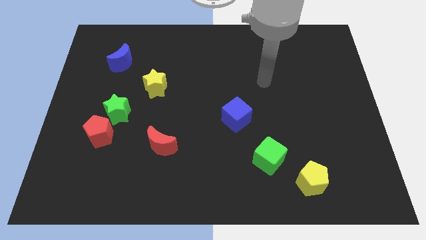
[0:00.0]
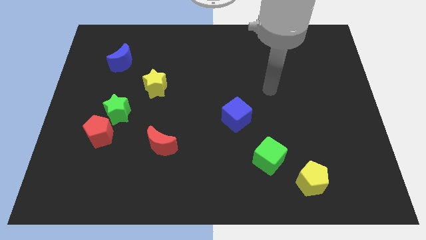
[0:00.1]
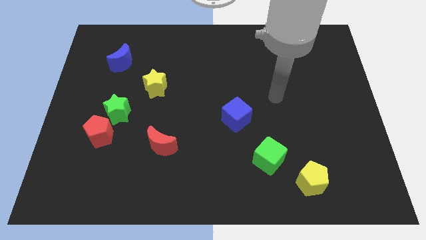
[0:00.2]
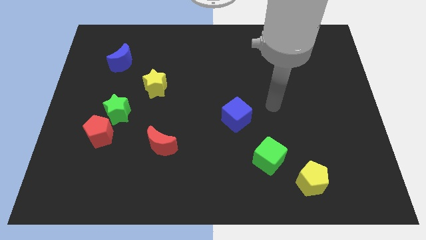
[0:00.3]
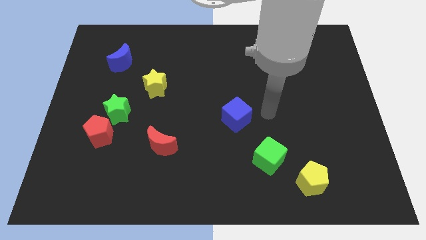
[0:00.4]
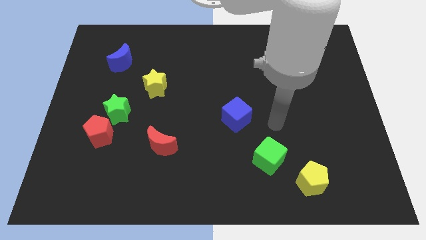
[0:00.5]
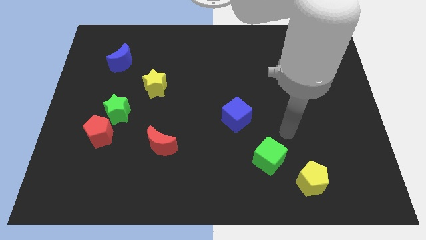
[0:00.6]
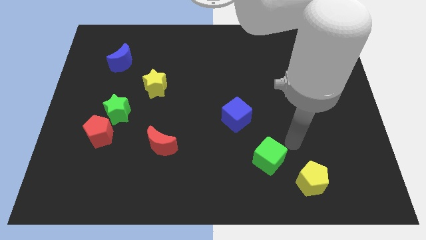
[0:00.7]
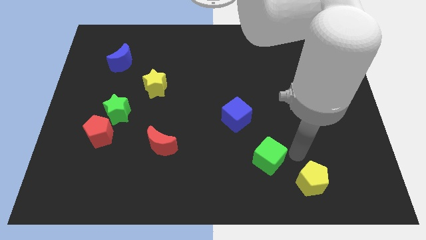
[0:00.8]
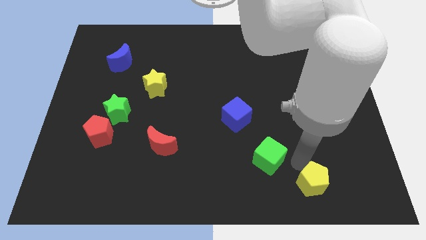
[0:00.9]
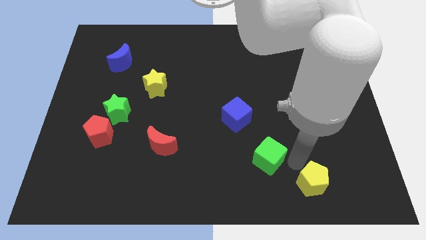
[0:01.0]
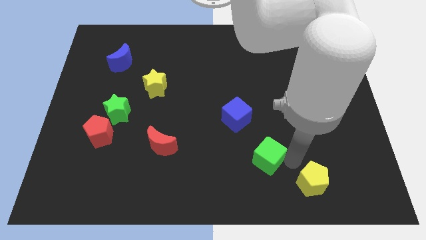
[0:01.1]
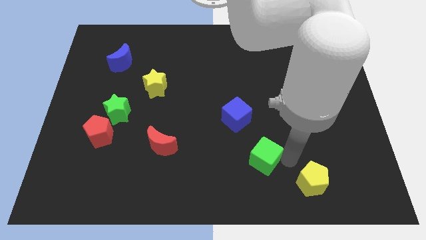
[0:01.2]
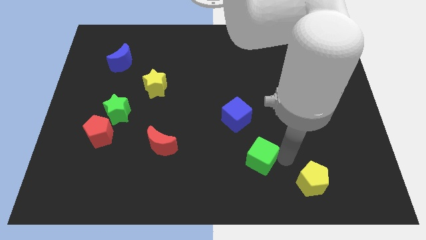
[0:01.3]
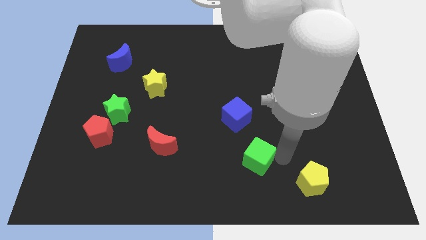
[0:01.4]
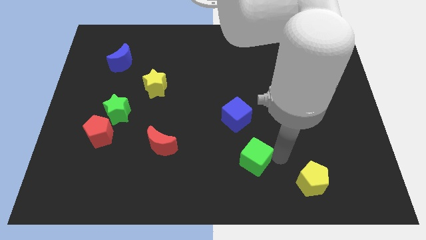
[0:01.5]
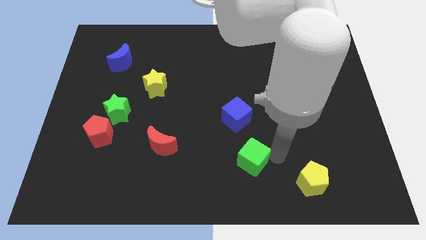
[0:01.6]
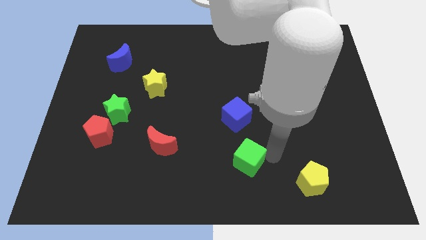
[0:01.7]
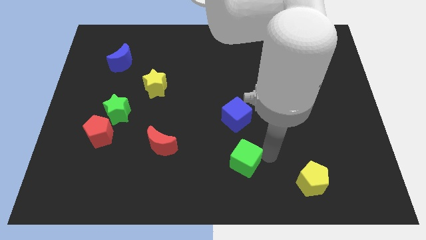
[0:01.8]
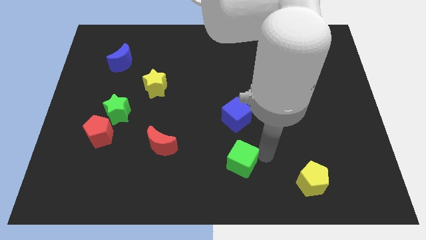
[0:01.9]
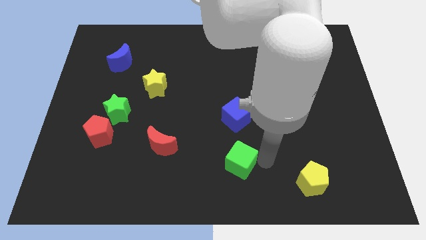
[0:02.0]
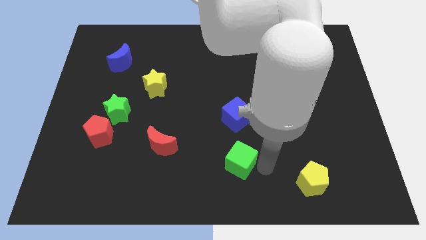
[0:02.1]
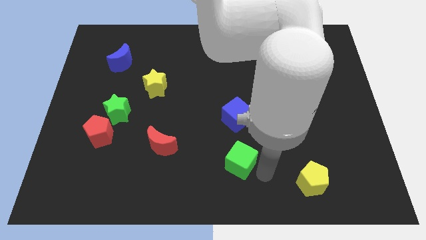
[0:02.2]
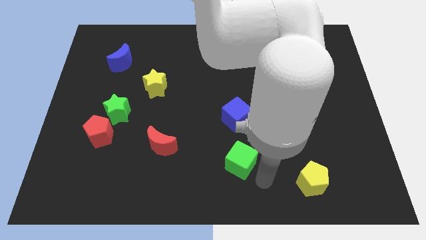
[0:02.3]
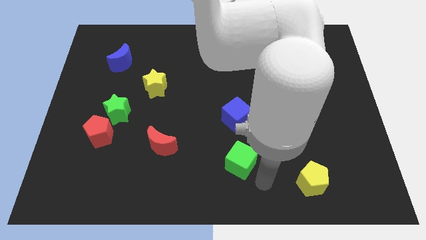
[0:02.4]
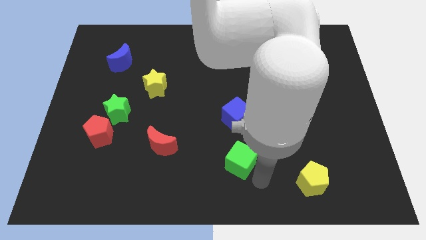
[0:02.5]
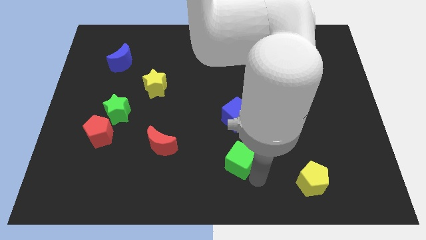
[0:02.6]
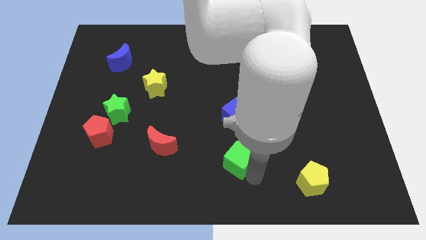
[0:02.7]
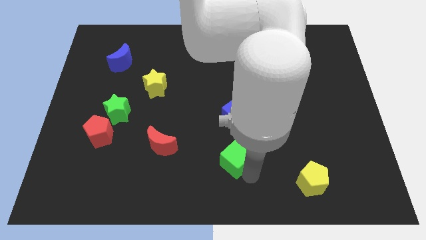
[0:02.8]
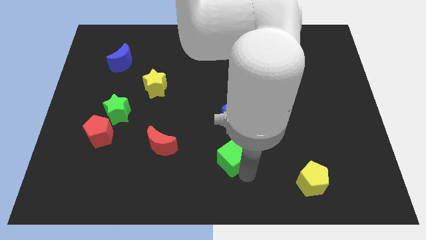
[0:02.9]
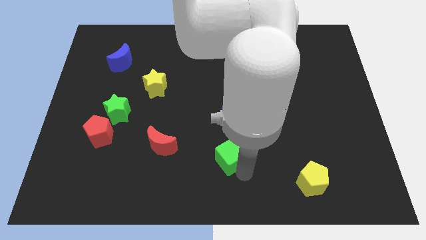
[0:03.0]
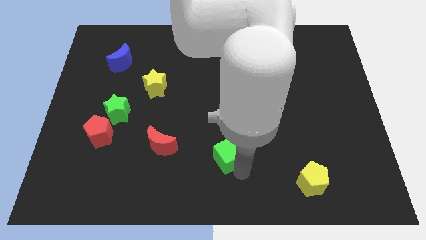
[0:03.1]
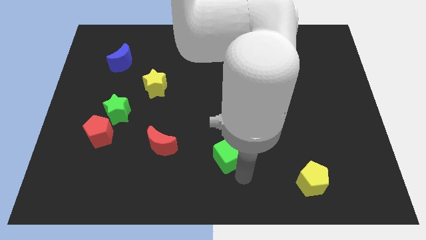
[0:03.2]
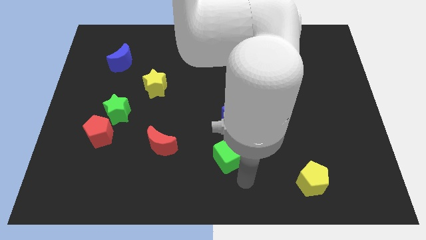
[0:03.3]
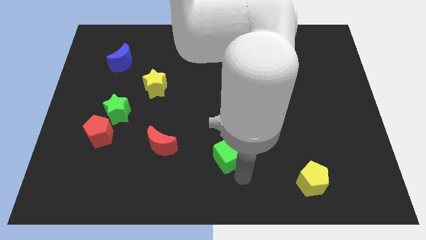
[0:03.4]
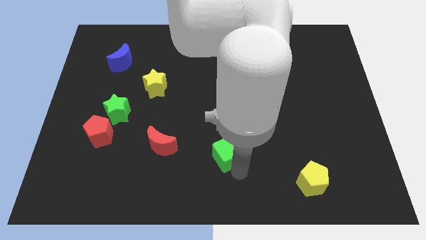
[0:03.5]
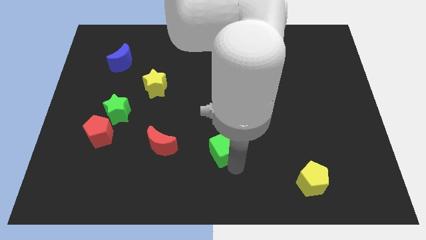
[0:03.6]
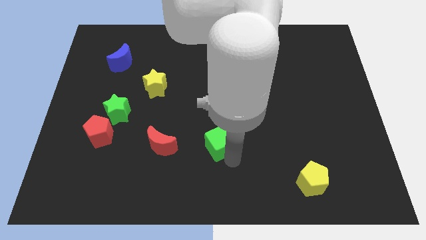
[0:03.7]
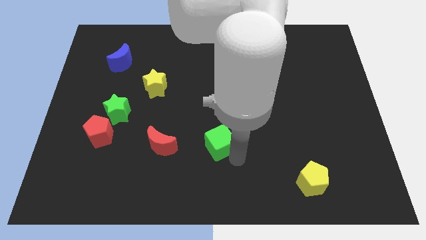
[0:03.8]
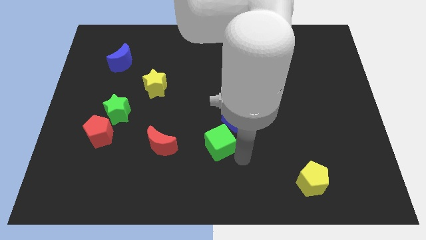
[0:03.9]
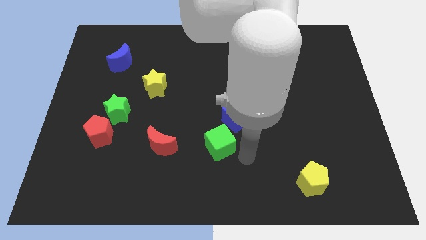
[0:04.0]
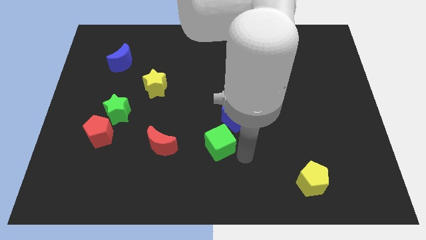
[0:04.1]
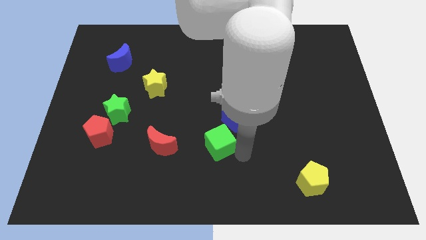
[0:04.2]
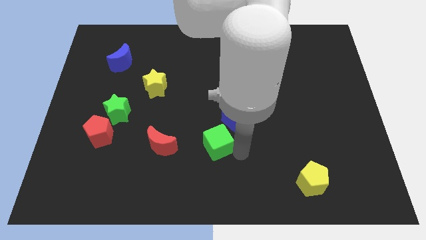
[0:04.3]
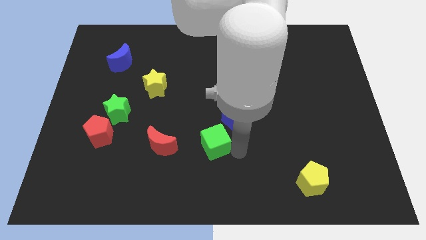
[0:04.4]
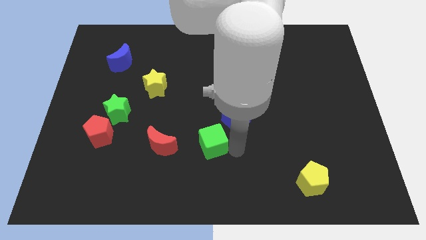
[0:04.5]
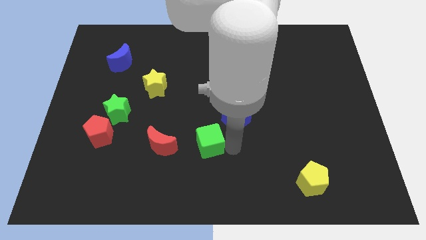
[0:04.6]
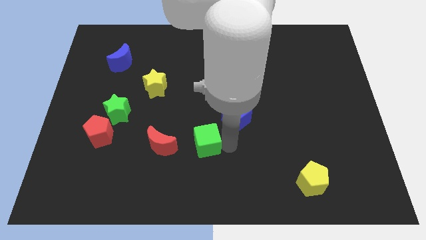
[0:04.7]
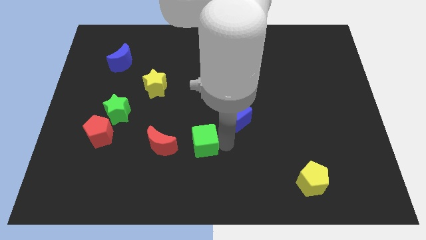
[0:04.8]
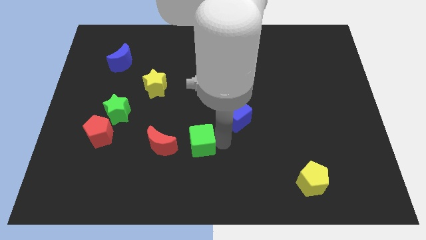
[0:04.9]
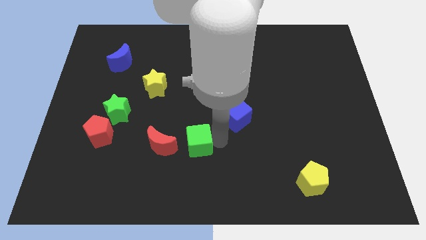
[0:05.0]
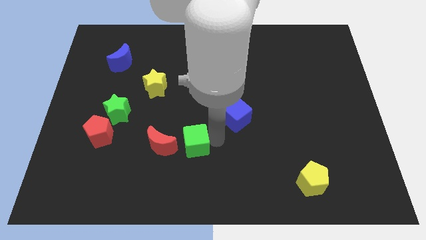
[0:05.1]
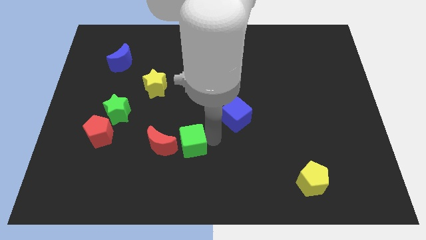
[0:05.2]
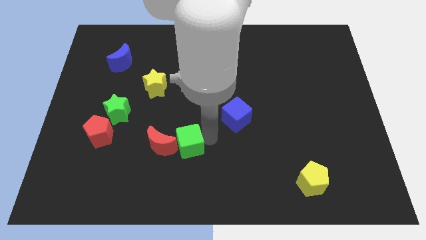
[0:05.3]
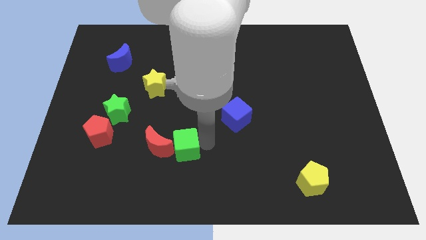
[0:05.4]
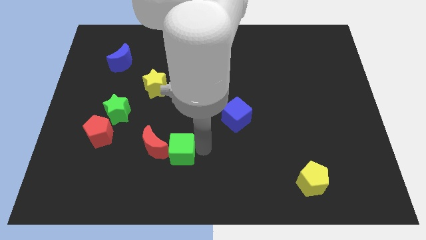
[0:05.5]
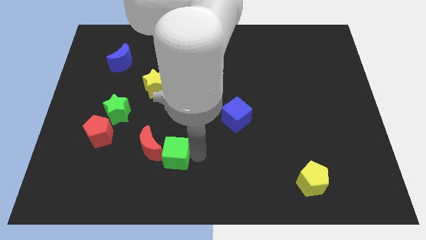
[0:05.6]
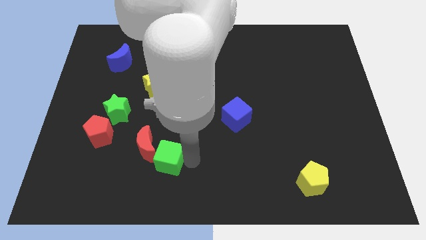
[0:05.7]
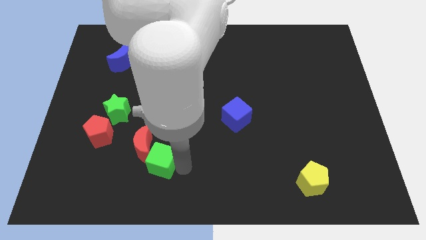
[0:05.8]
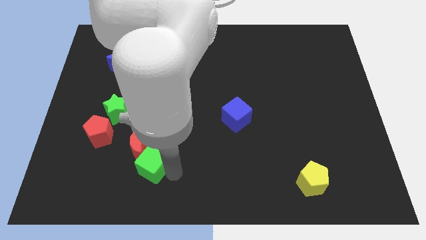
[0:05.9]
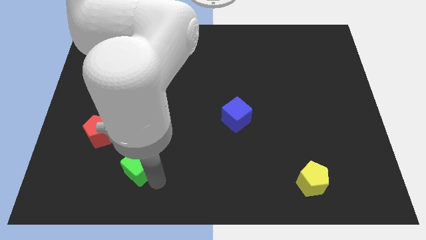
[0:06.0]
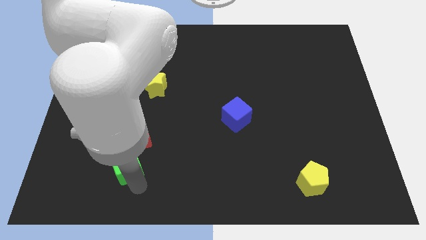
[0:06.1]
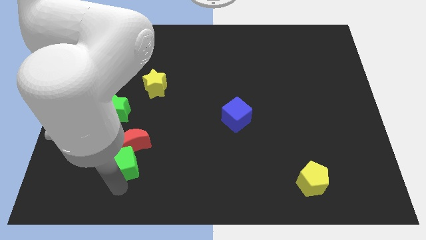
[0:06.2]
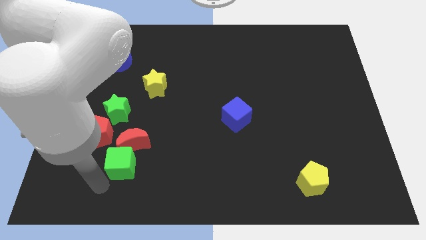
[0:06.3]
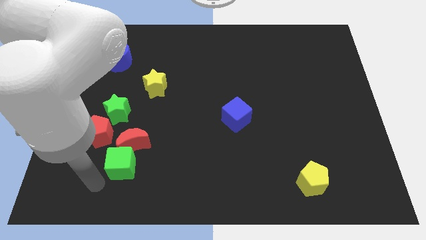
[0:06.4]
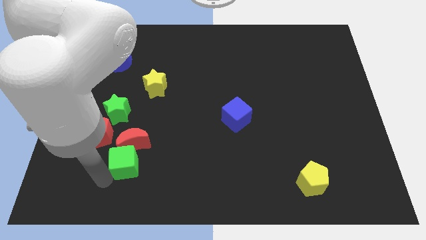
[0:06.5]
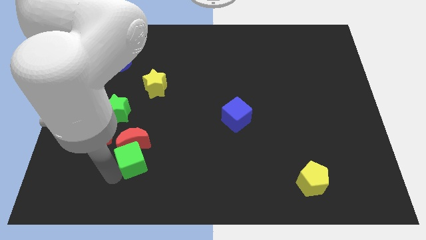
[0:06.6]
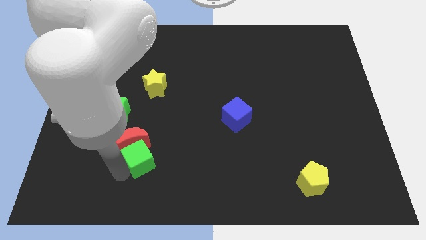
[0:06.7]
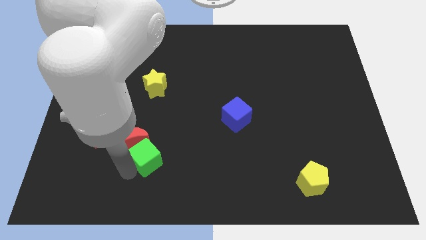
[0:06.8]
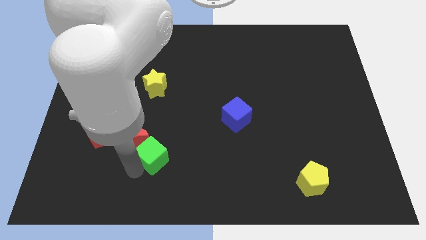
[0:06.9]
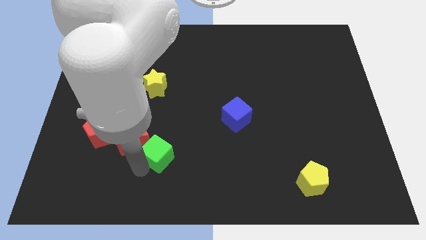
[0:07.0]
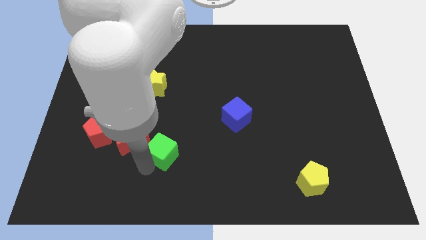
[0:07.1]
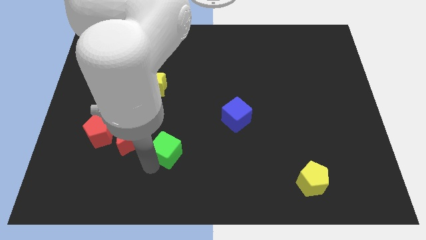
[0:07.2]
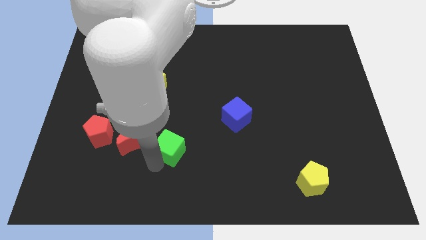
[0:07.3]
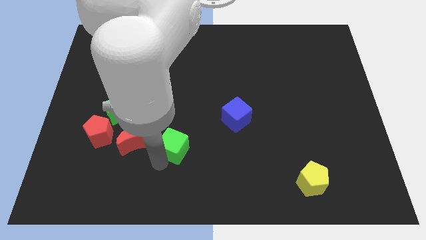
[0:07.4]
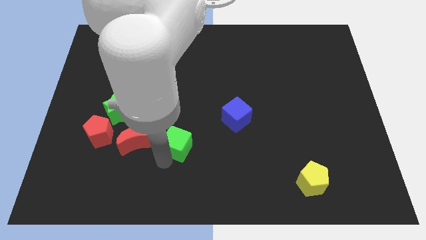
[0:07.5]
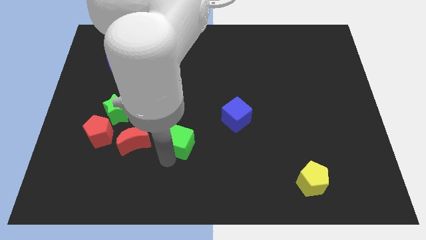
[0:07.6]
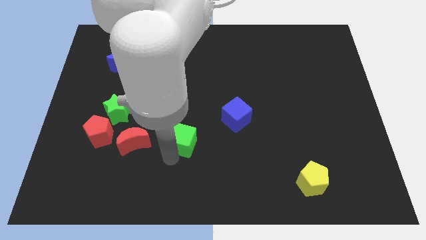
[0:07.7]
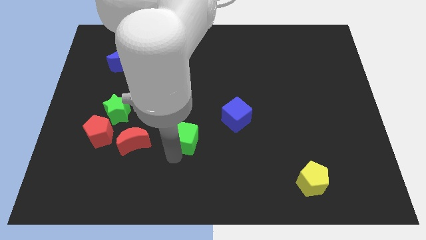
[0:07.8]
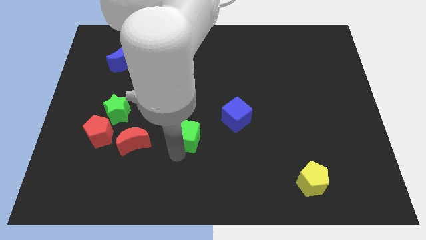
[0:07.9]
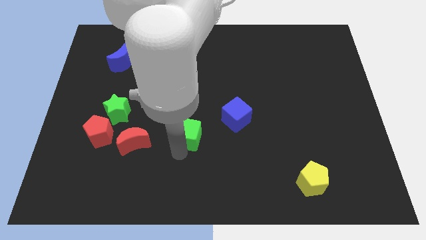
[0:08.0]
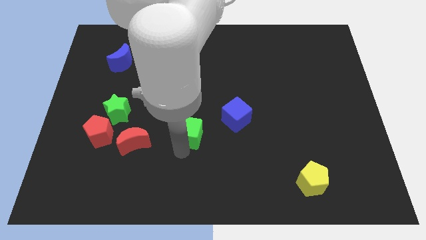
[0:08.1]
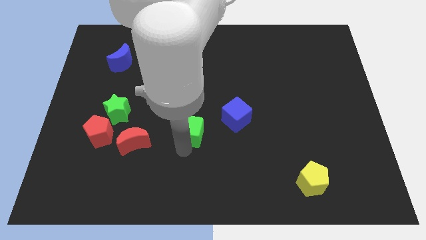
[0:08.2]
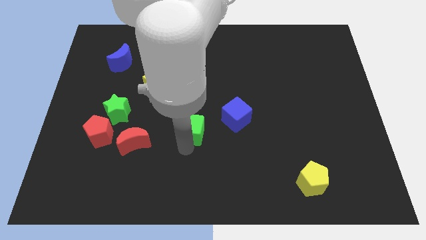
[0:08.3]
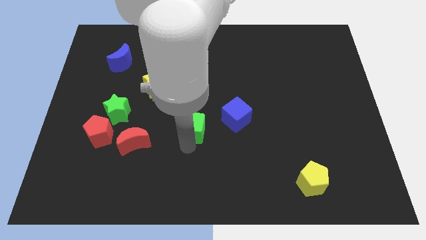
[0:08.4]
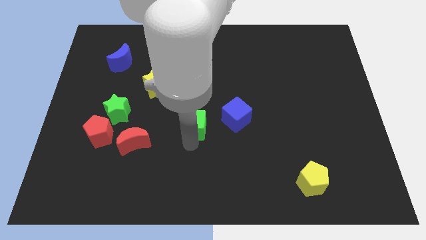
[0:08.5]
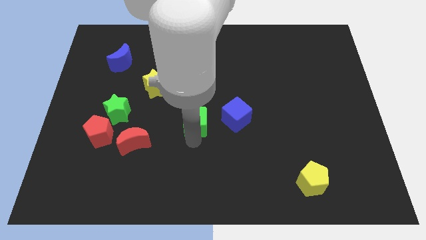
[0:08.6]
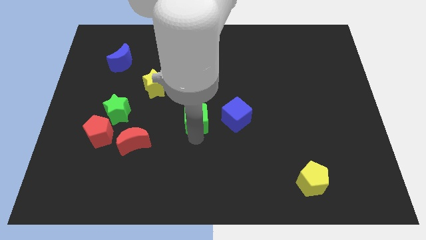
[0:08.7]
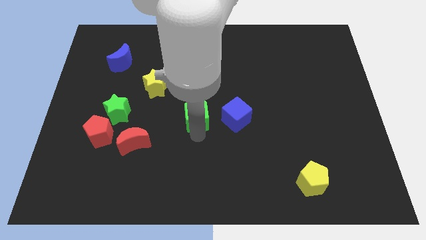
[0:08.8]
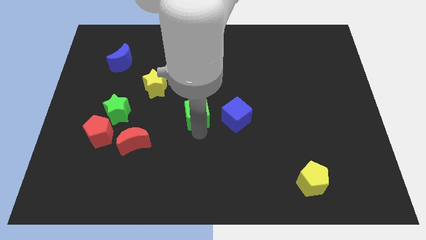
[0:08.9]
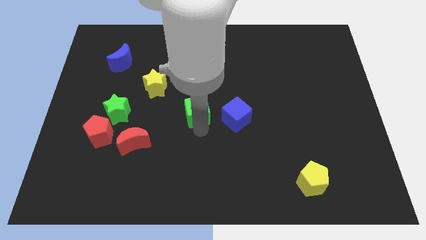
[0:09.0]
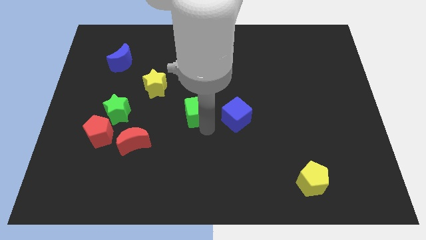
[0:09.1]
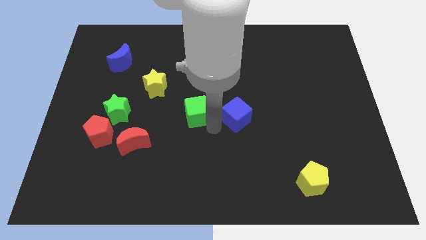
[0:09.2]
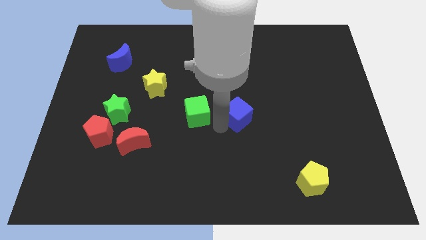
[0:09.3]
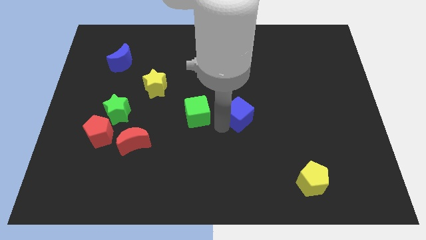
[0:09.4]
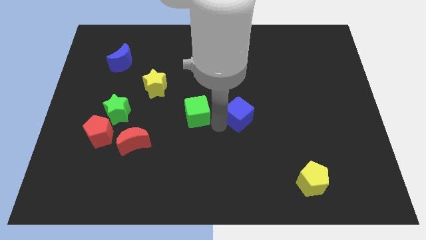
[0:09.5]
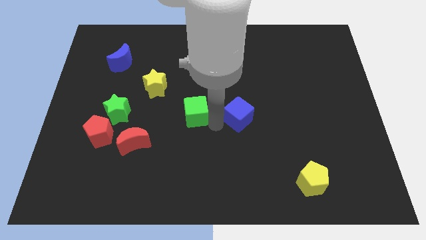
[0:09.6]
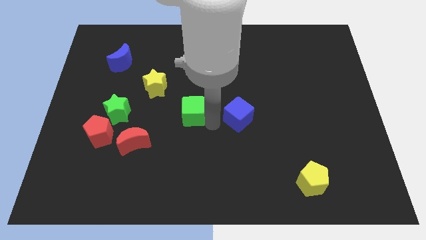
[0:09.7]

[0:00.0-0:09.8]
move the green cube to the bottom right of the yellow star
